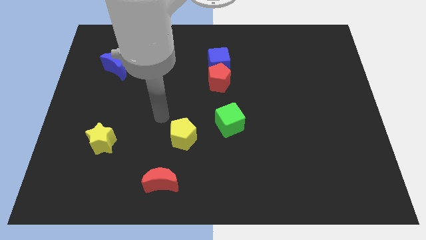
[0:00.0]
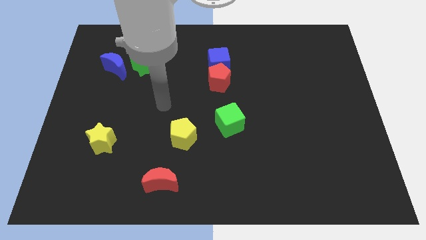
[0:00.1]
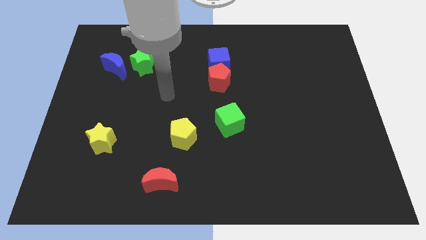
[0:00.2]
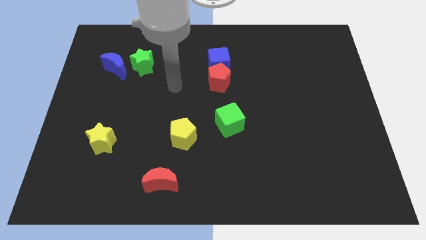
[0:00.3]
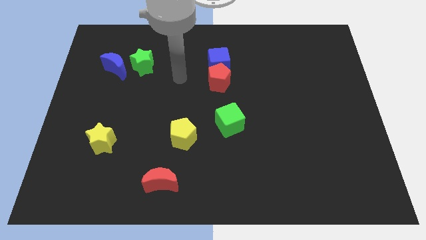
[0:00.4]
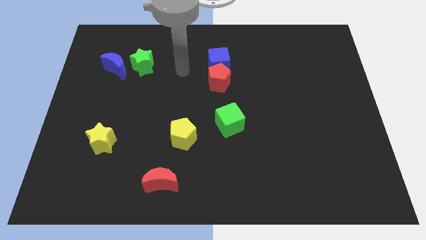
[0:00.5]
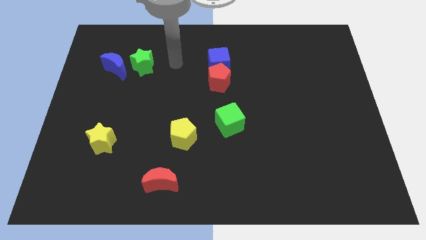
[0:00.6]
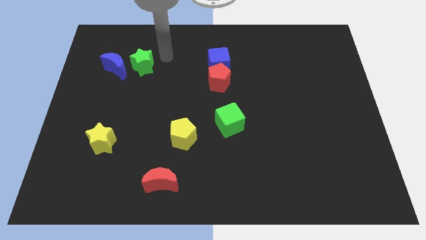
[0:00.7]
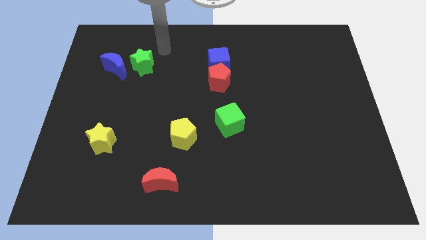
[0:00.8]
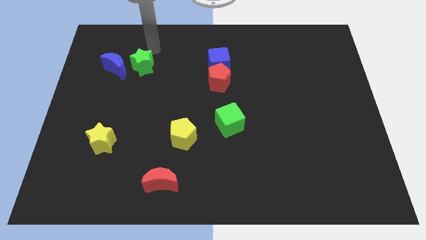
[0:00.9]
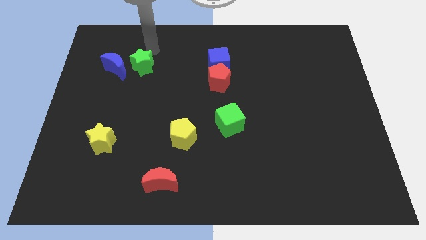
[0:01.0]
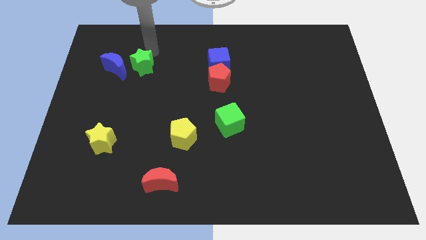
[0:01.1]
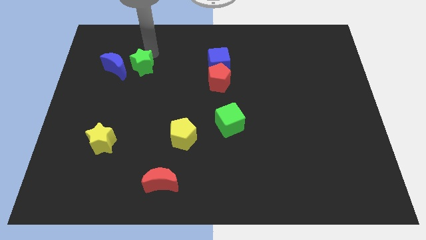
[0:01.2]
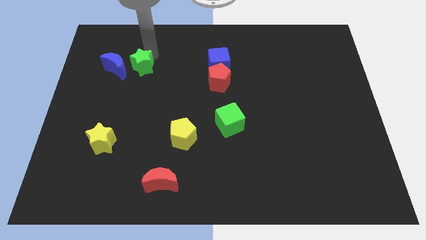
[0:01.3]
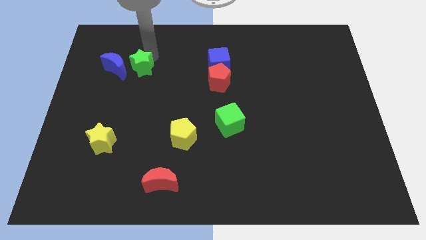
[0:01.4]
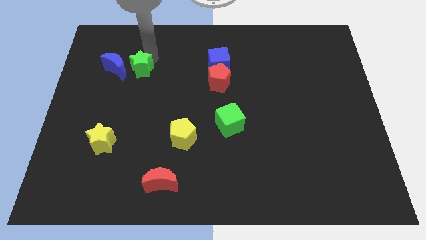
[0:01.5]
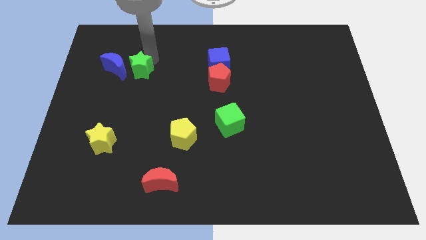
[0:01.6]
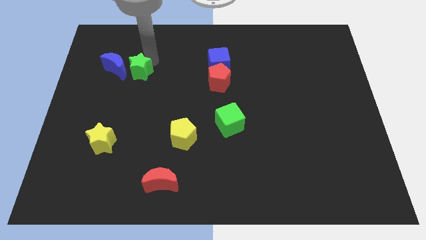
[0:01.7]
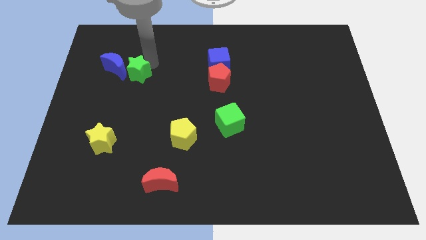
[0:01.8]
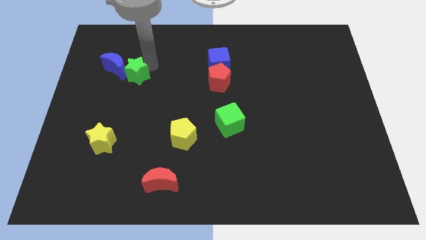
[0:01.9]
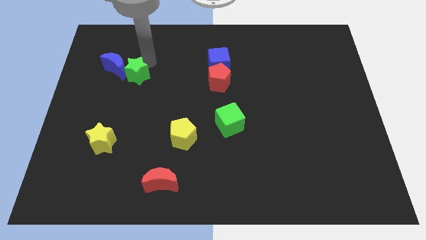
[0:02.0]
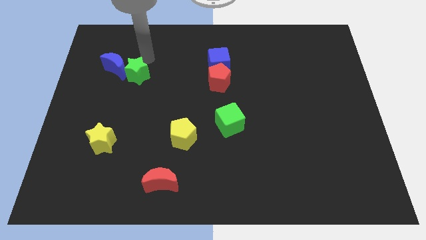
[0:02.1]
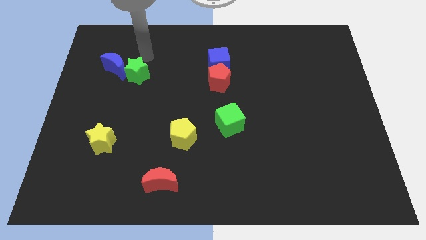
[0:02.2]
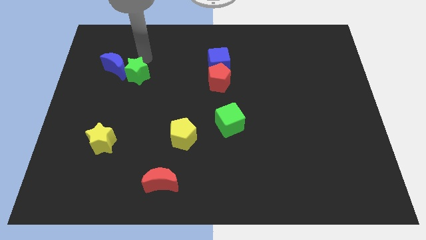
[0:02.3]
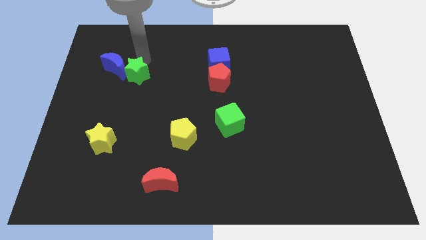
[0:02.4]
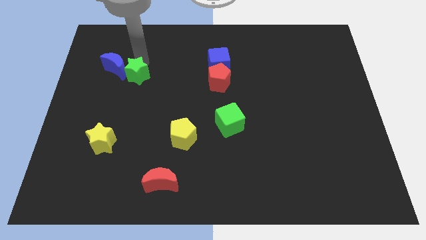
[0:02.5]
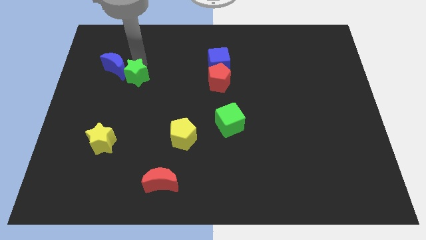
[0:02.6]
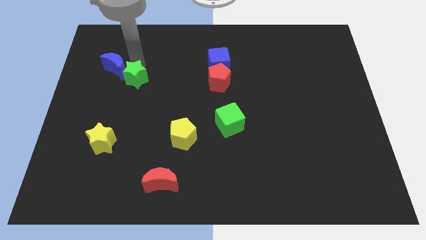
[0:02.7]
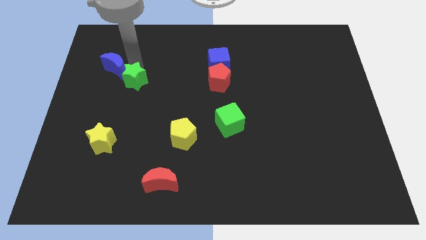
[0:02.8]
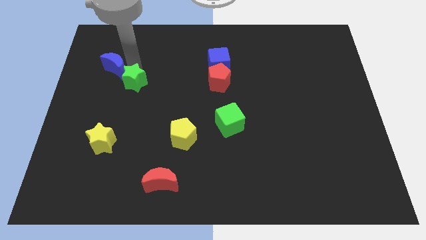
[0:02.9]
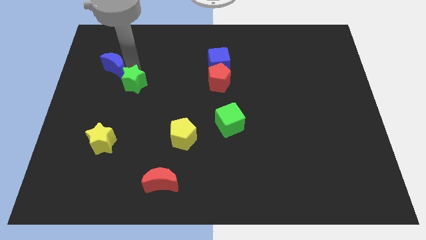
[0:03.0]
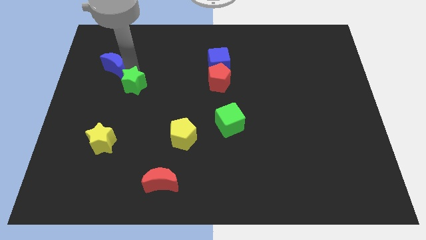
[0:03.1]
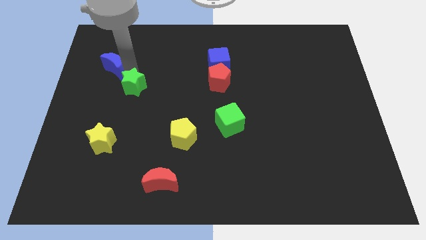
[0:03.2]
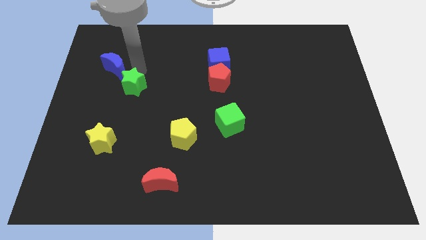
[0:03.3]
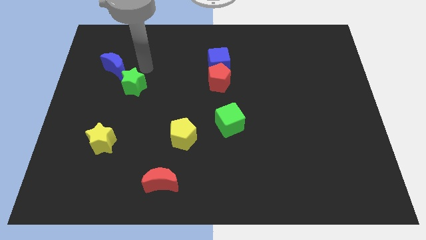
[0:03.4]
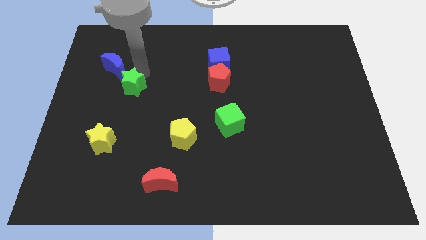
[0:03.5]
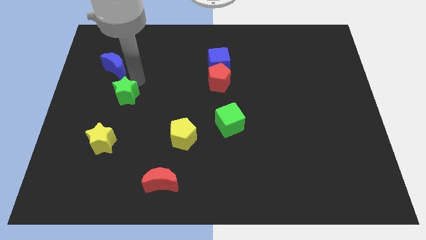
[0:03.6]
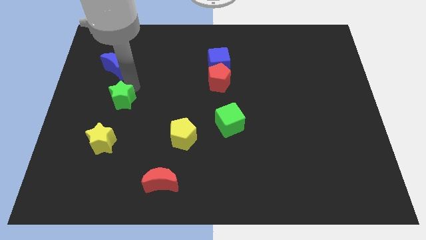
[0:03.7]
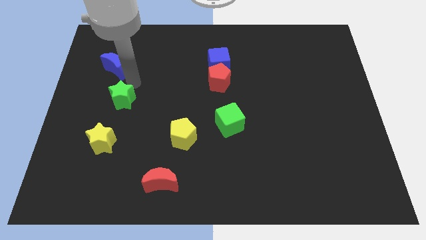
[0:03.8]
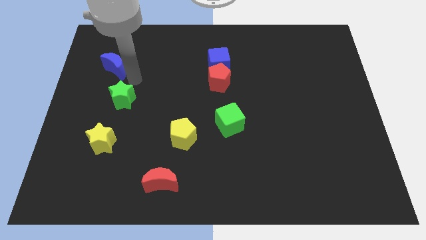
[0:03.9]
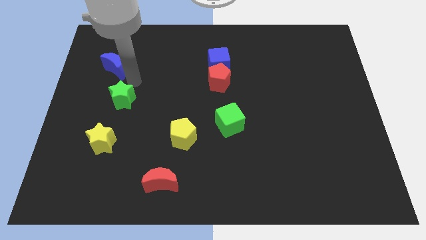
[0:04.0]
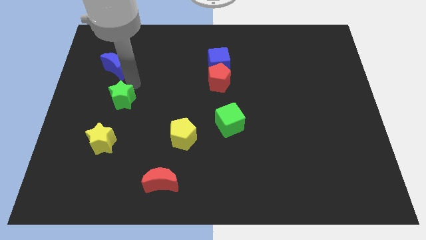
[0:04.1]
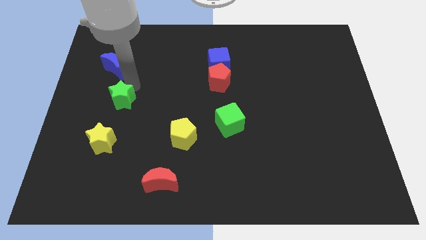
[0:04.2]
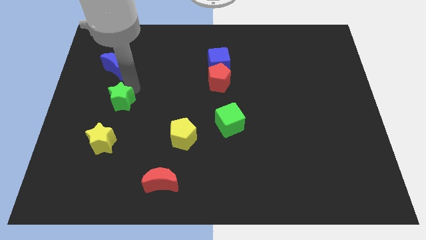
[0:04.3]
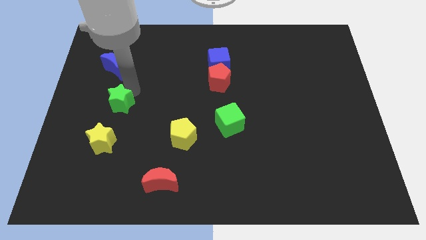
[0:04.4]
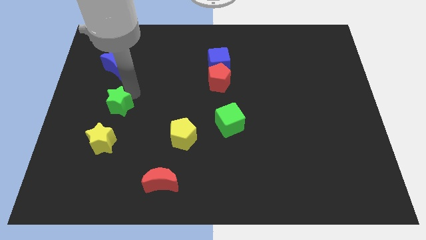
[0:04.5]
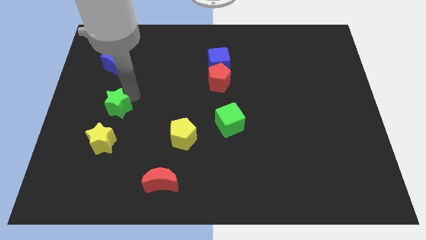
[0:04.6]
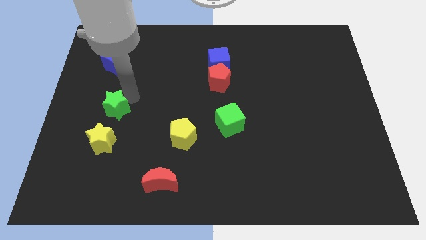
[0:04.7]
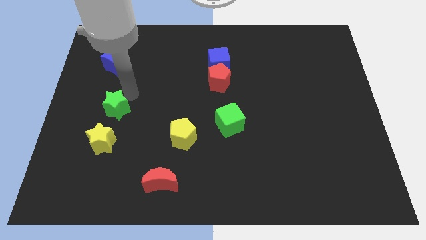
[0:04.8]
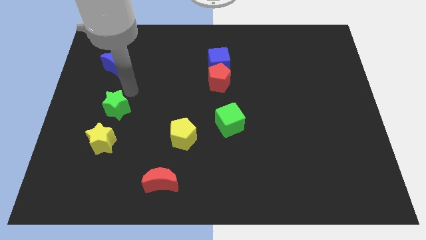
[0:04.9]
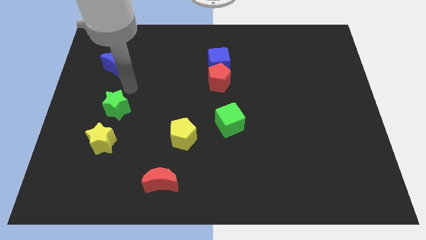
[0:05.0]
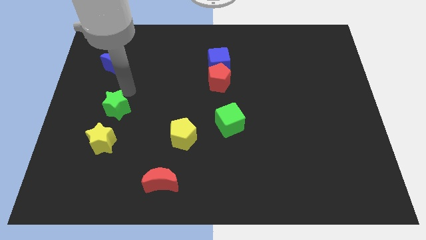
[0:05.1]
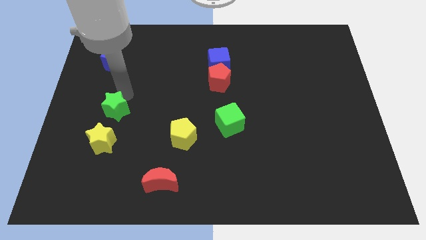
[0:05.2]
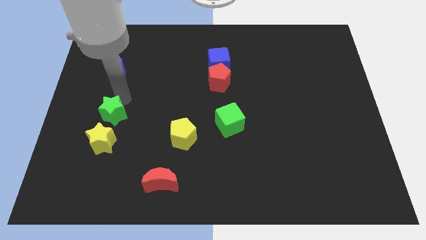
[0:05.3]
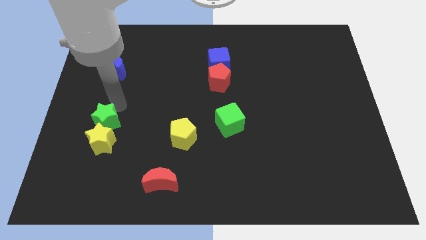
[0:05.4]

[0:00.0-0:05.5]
slide the green star close to the yellow star

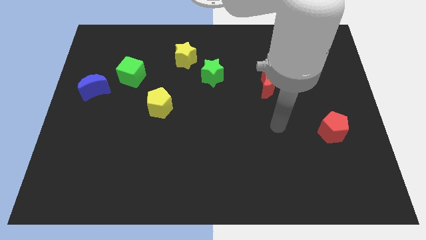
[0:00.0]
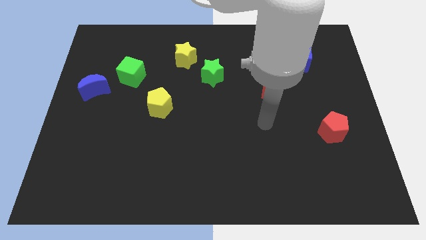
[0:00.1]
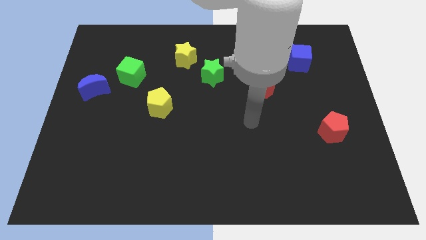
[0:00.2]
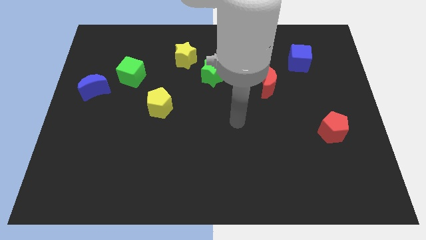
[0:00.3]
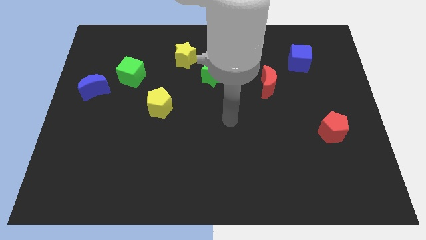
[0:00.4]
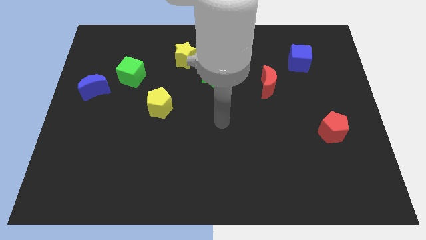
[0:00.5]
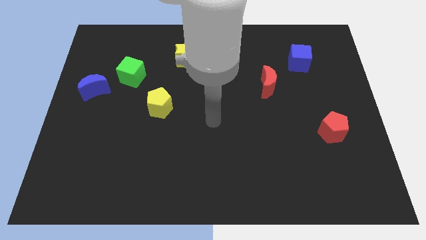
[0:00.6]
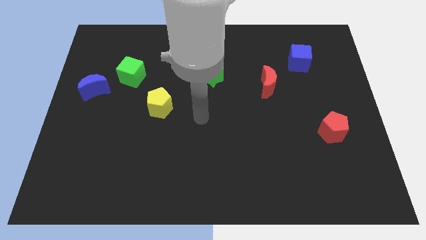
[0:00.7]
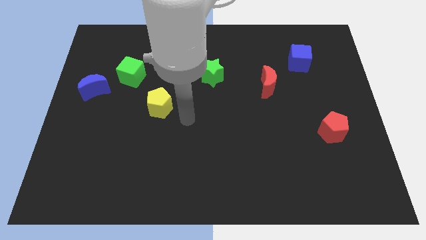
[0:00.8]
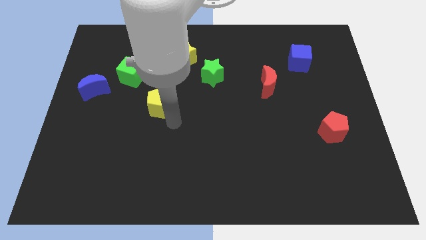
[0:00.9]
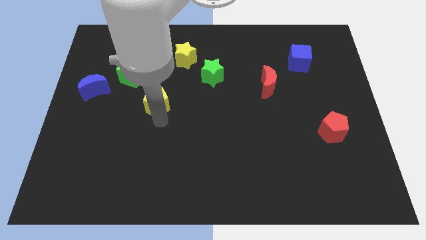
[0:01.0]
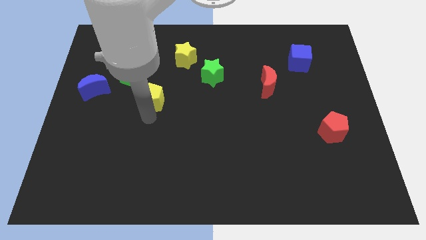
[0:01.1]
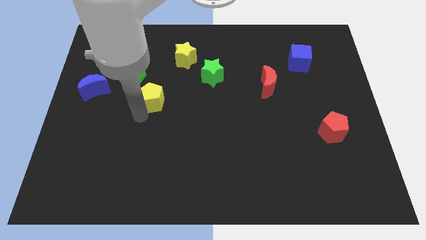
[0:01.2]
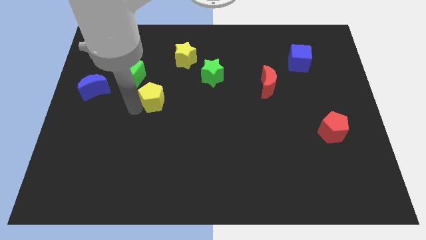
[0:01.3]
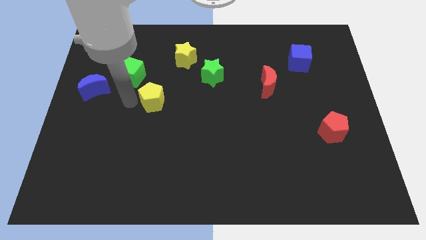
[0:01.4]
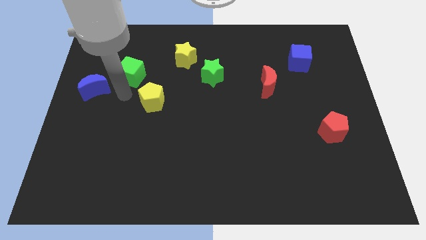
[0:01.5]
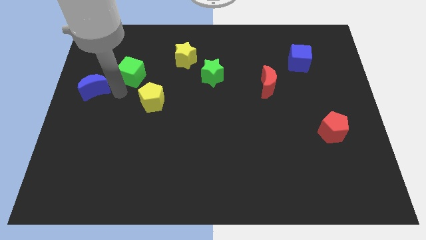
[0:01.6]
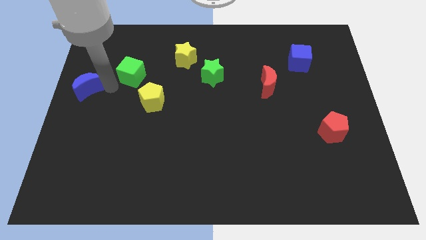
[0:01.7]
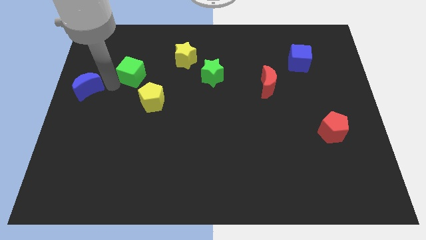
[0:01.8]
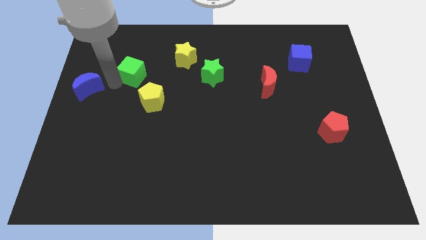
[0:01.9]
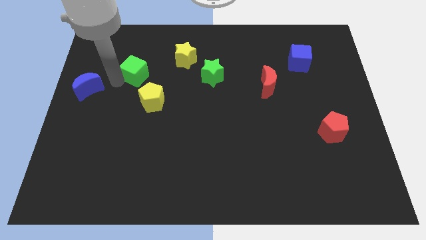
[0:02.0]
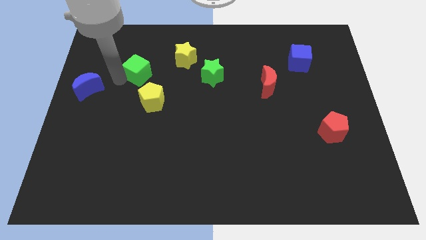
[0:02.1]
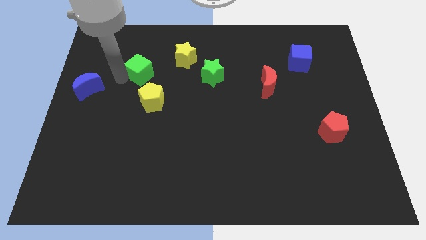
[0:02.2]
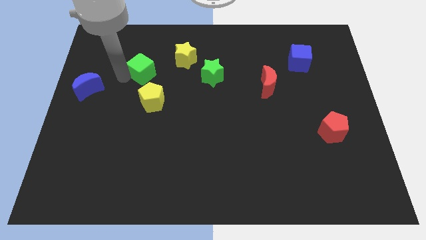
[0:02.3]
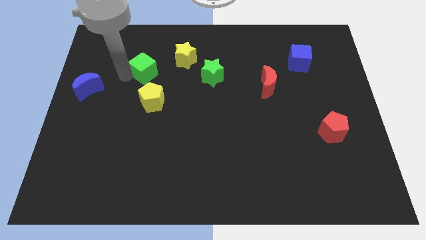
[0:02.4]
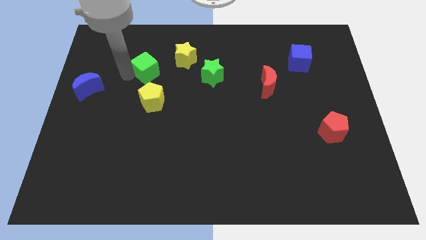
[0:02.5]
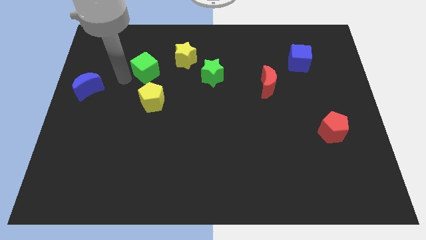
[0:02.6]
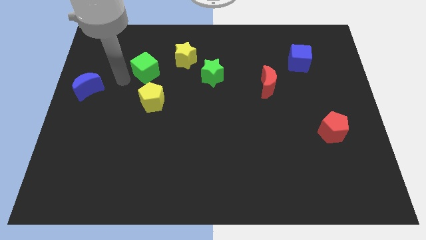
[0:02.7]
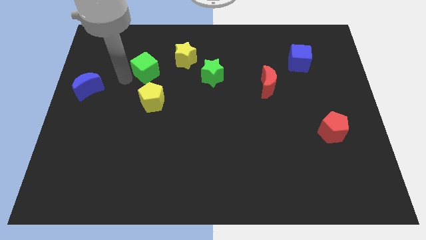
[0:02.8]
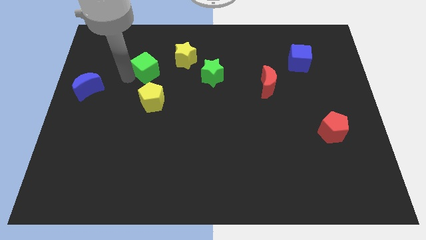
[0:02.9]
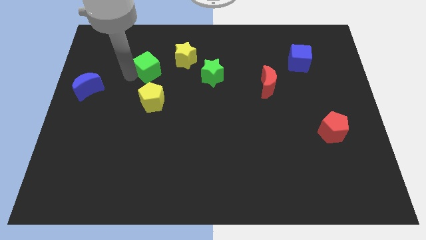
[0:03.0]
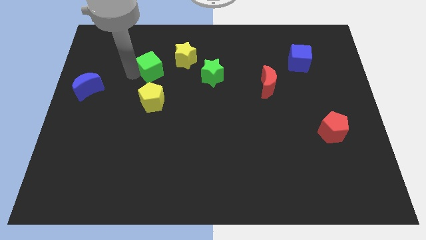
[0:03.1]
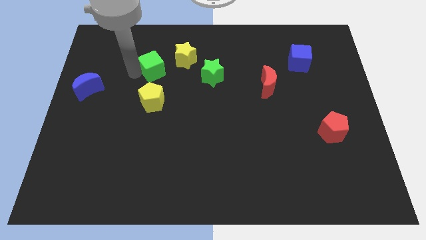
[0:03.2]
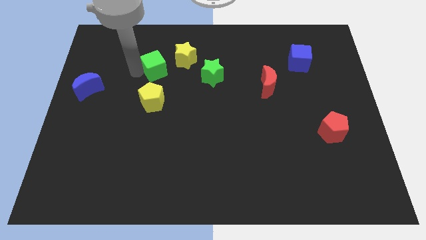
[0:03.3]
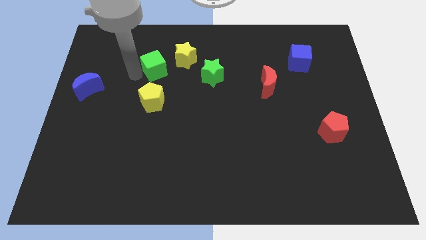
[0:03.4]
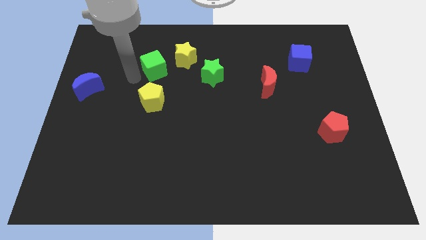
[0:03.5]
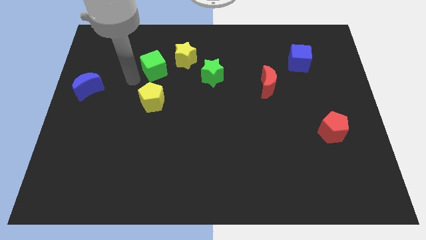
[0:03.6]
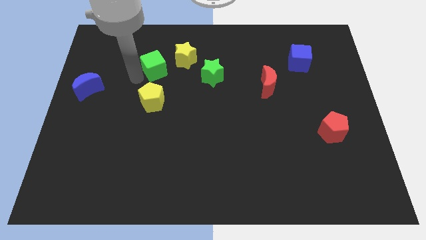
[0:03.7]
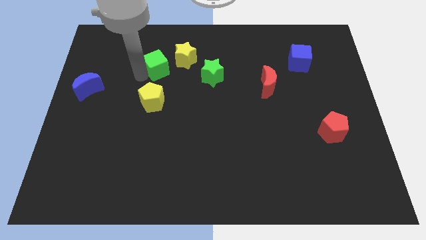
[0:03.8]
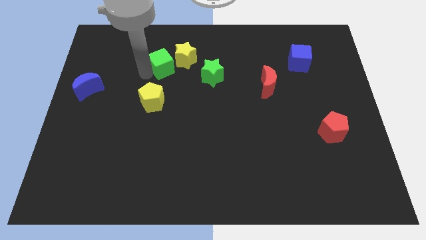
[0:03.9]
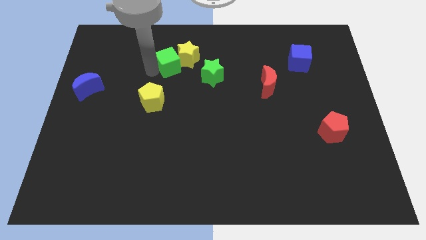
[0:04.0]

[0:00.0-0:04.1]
put the green cube to the yellow star
